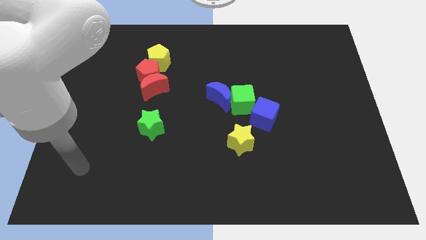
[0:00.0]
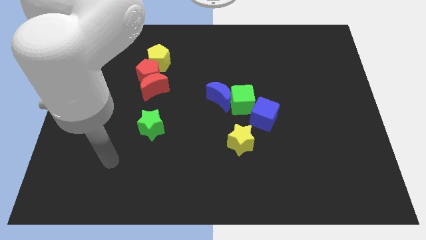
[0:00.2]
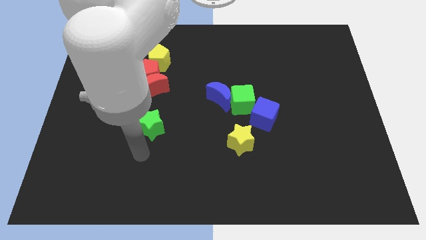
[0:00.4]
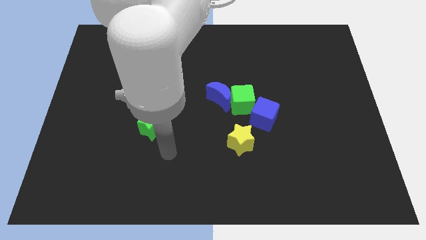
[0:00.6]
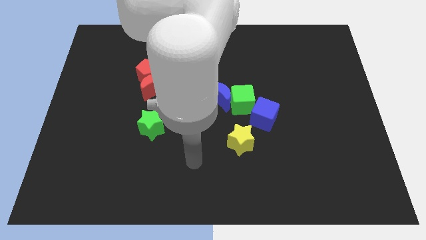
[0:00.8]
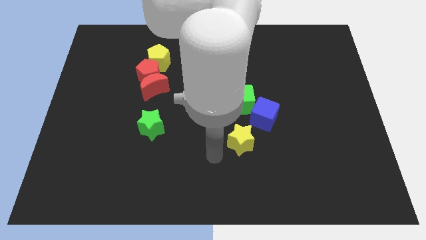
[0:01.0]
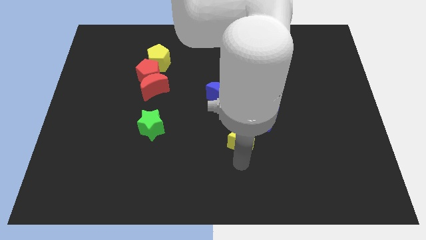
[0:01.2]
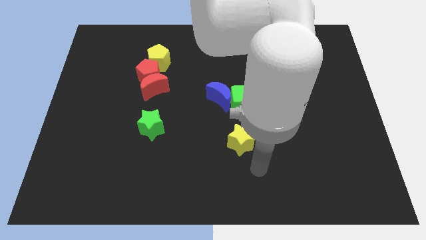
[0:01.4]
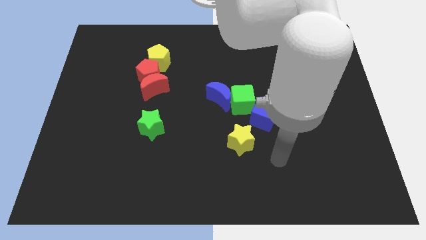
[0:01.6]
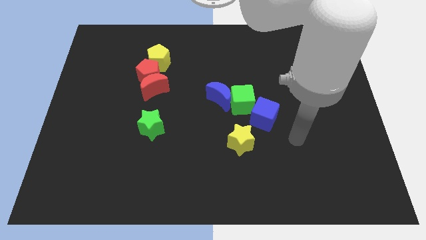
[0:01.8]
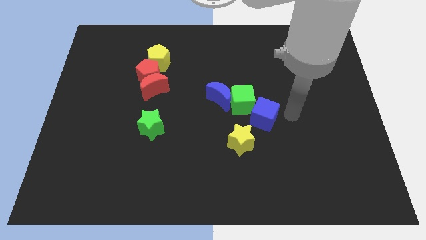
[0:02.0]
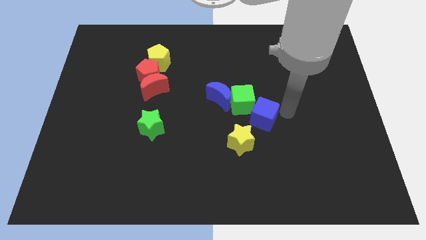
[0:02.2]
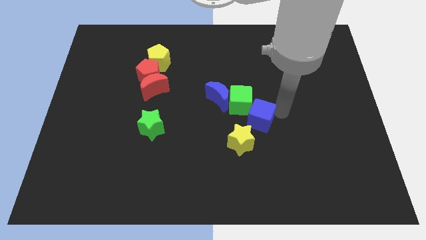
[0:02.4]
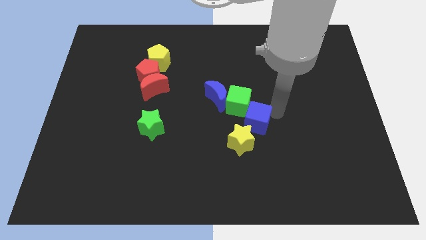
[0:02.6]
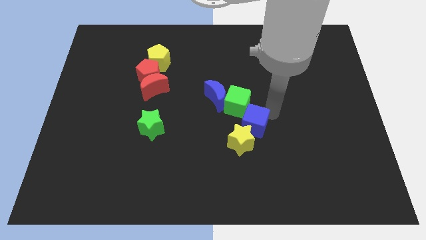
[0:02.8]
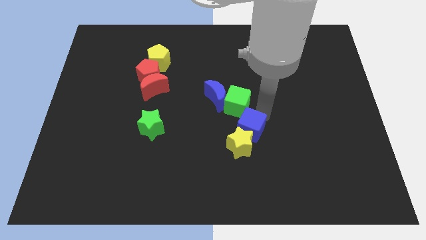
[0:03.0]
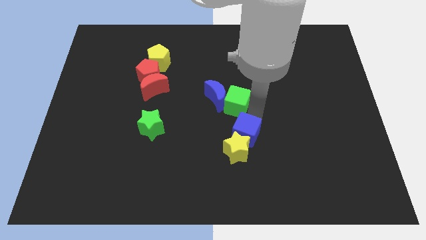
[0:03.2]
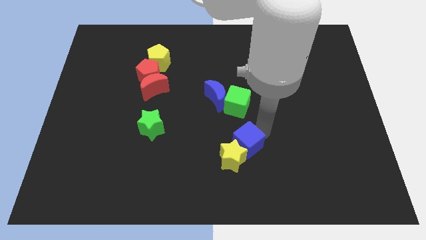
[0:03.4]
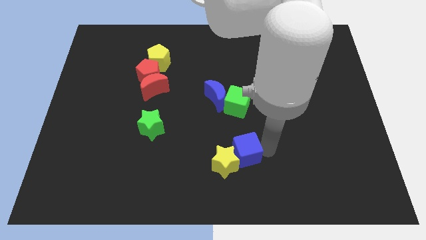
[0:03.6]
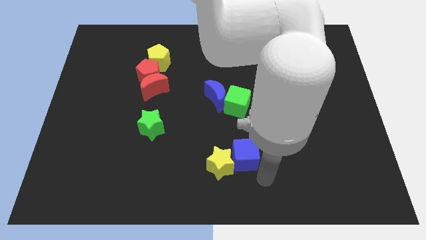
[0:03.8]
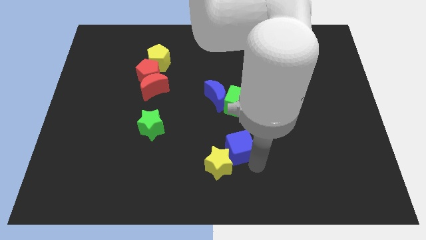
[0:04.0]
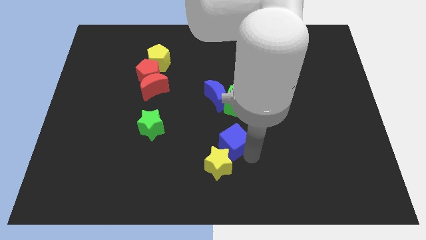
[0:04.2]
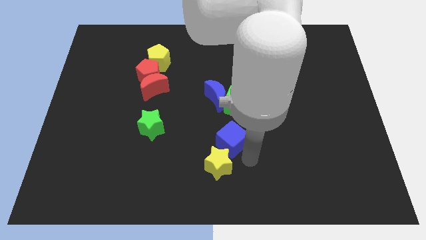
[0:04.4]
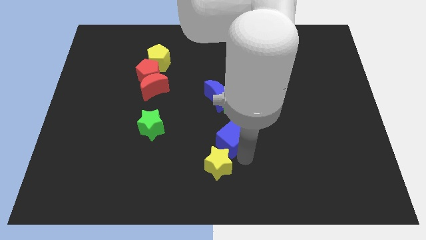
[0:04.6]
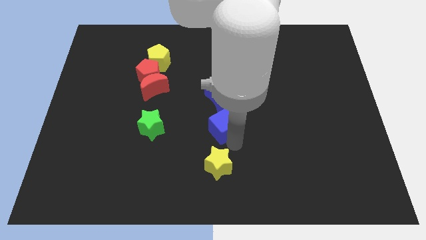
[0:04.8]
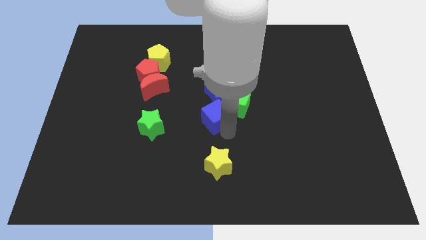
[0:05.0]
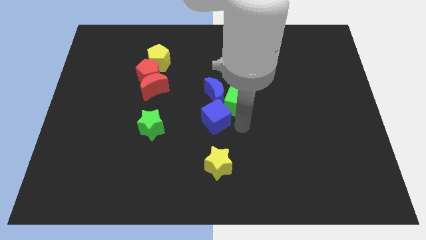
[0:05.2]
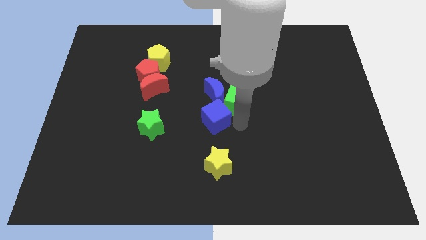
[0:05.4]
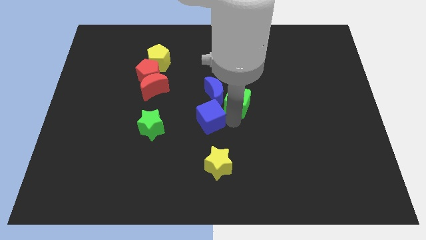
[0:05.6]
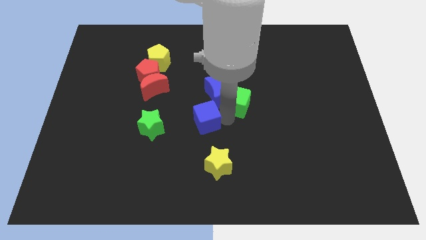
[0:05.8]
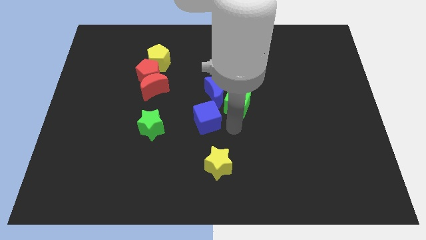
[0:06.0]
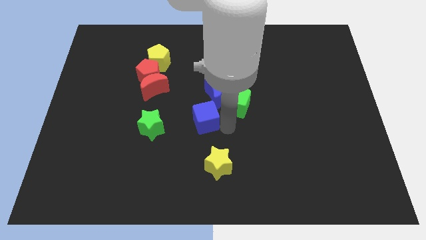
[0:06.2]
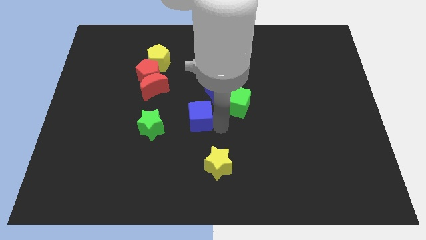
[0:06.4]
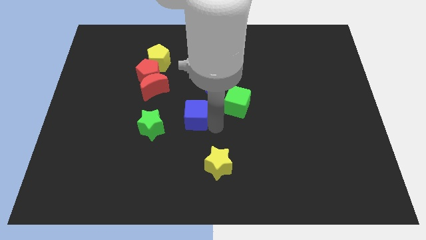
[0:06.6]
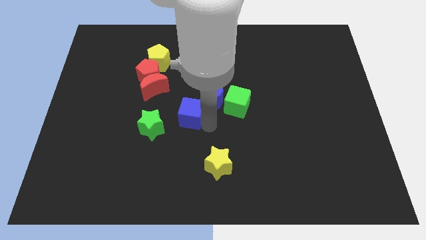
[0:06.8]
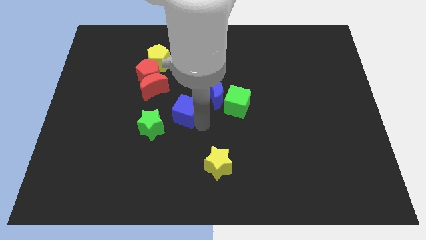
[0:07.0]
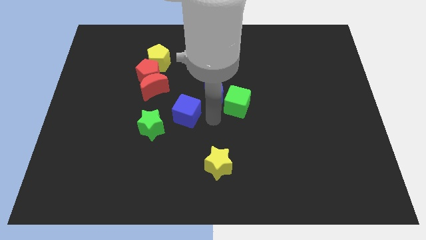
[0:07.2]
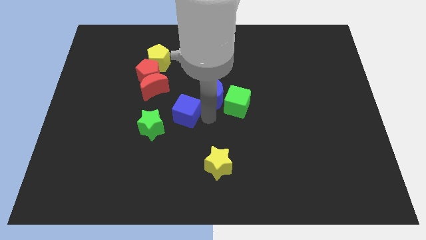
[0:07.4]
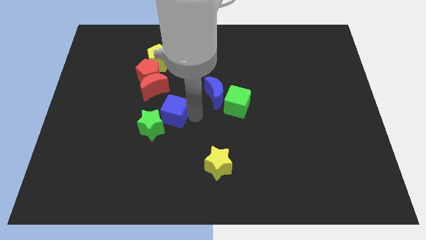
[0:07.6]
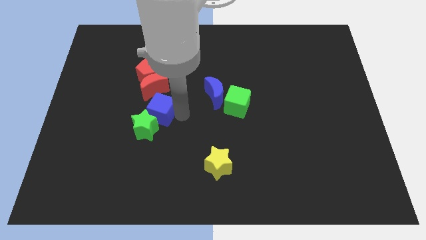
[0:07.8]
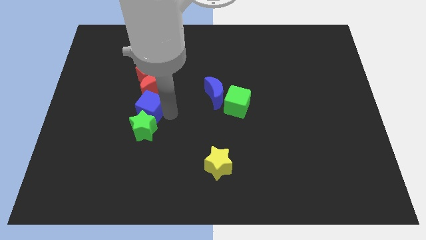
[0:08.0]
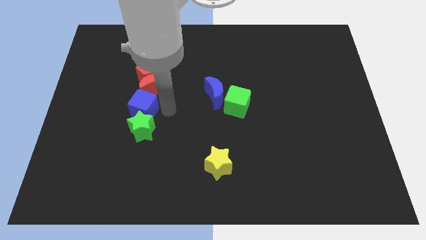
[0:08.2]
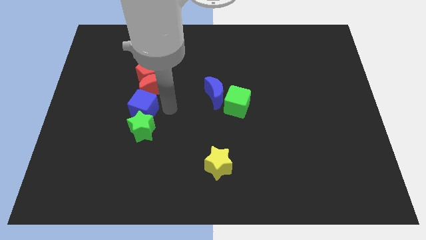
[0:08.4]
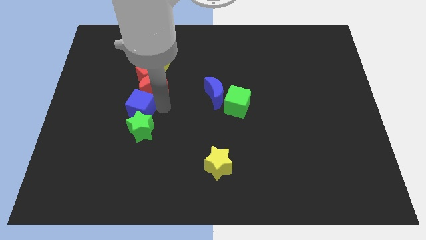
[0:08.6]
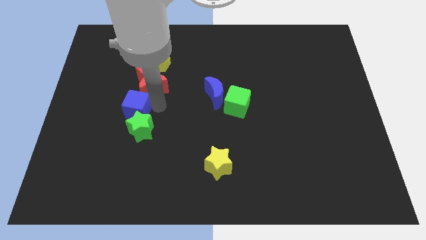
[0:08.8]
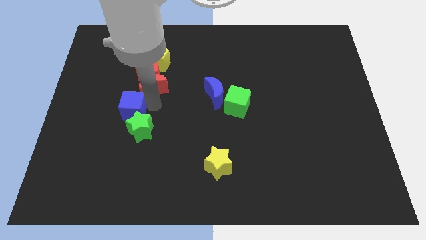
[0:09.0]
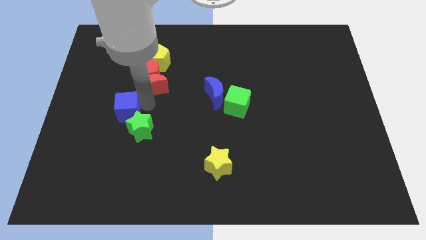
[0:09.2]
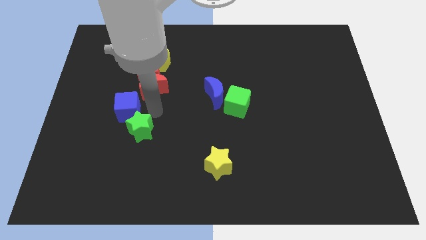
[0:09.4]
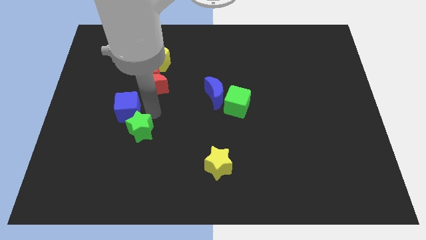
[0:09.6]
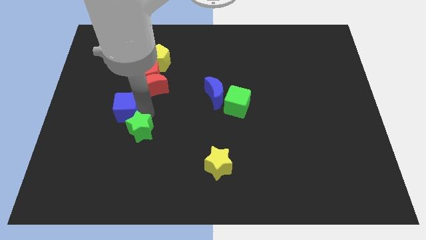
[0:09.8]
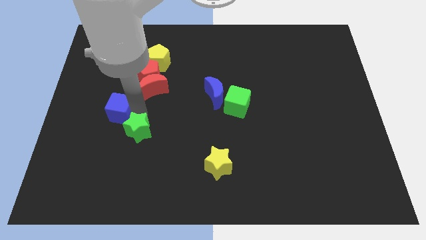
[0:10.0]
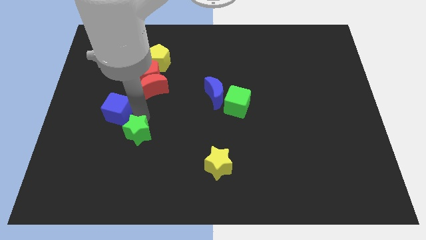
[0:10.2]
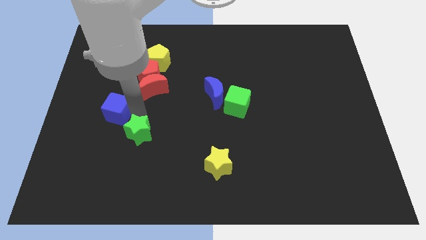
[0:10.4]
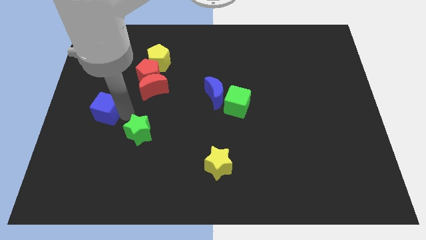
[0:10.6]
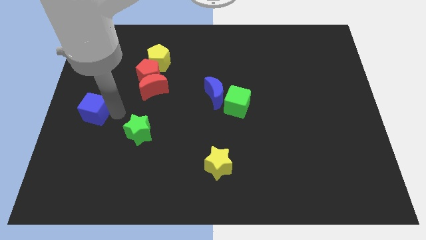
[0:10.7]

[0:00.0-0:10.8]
put the blue cube to the left side of the board
